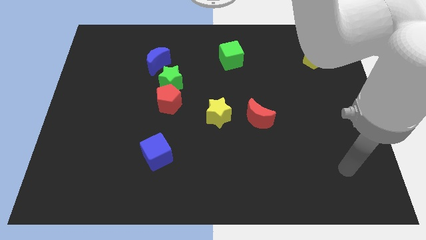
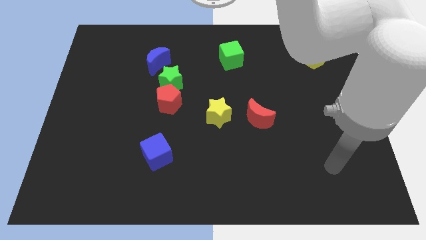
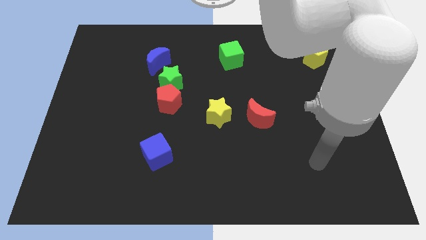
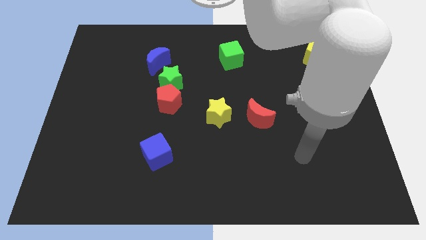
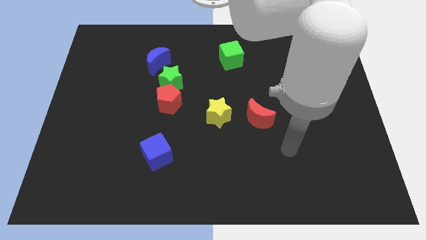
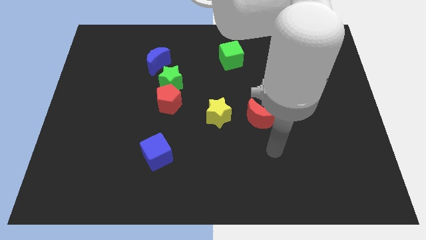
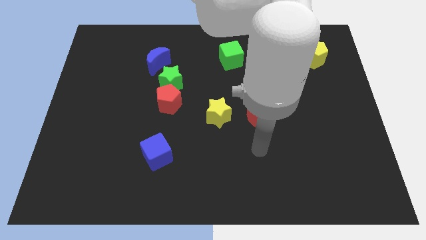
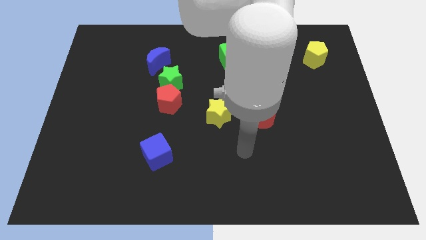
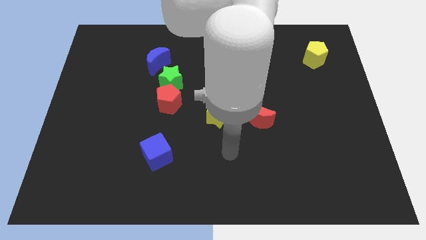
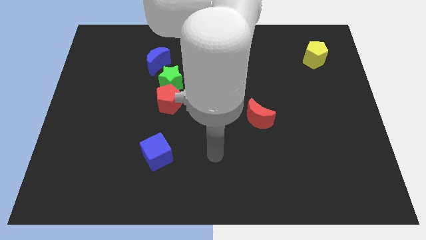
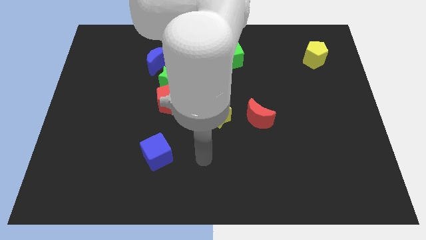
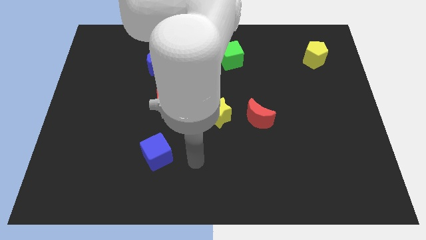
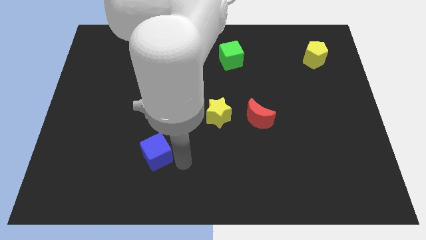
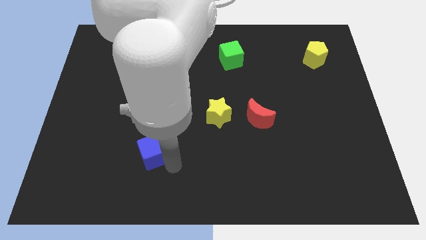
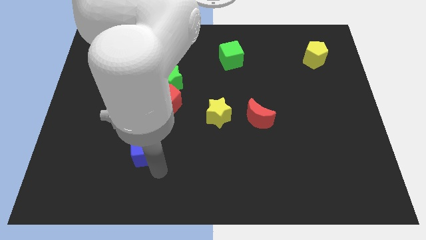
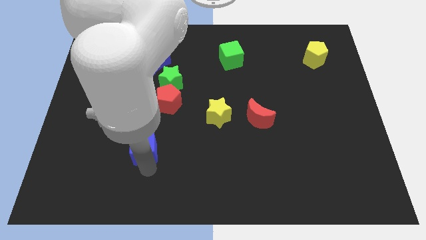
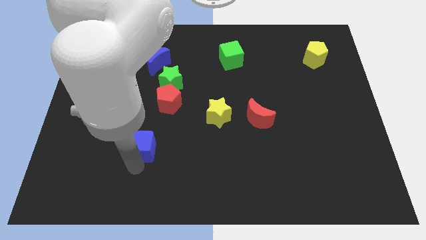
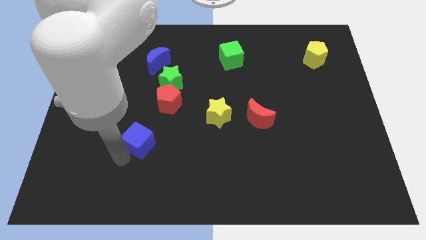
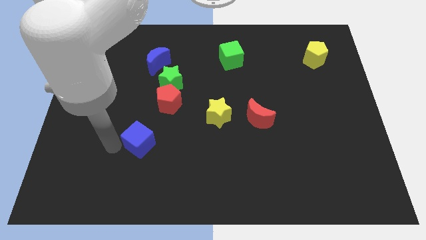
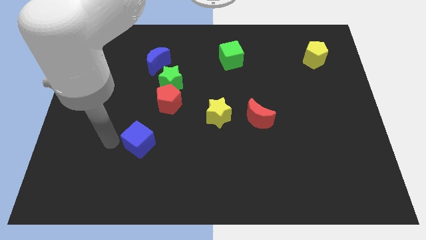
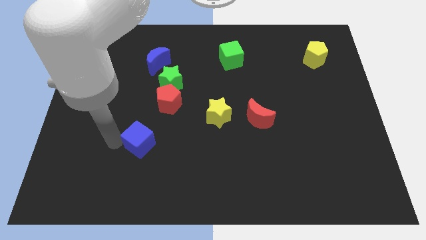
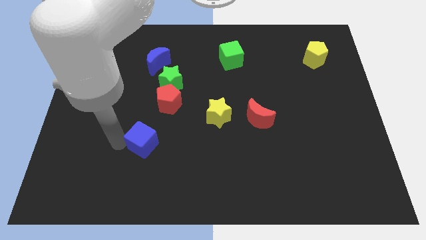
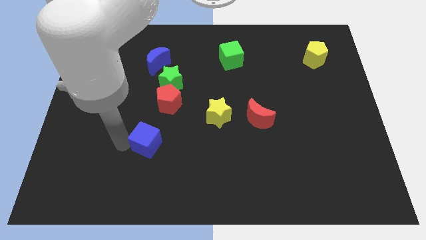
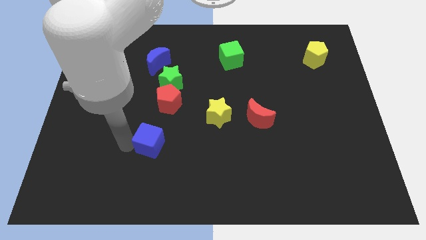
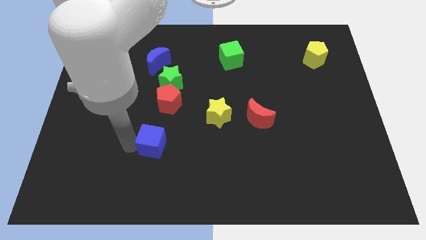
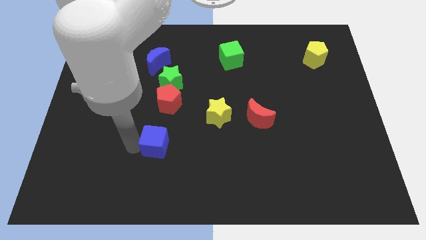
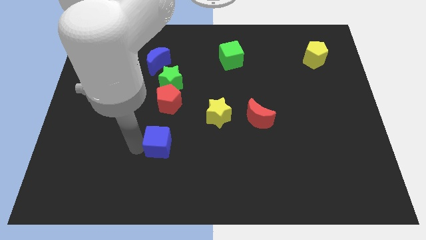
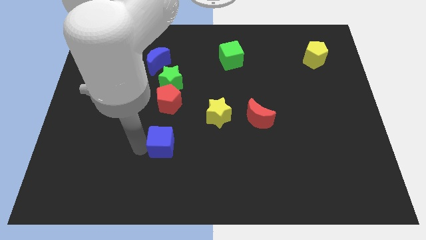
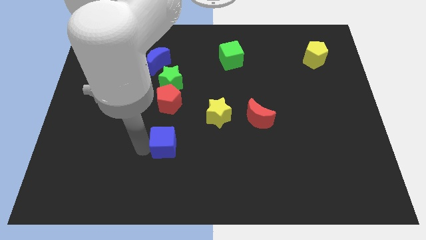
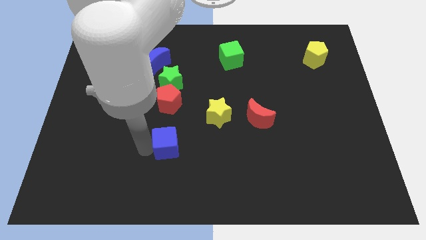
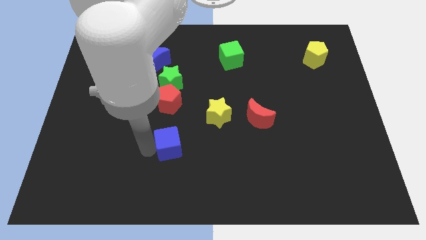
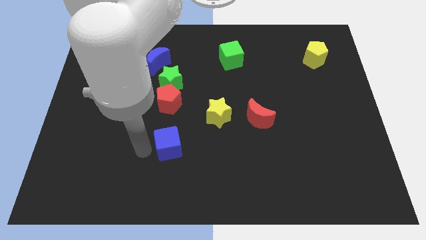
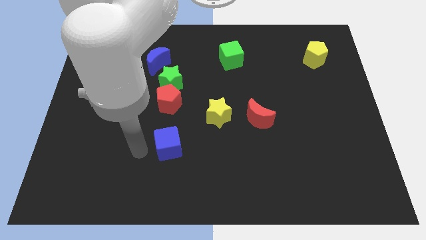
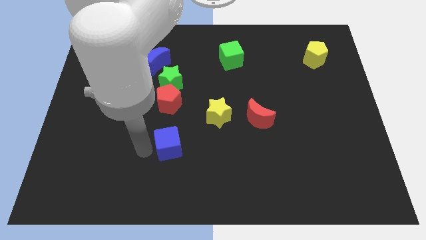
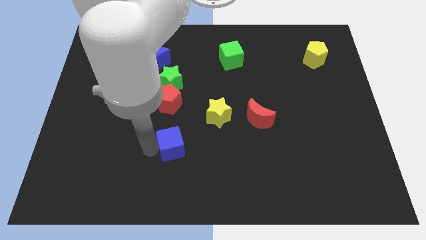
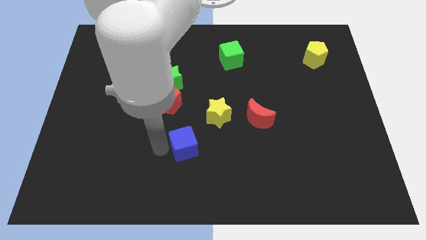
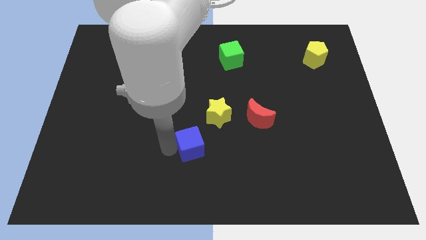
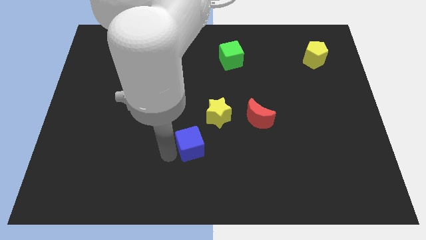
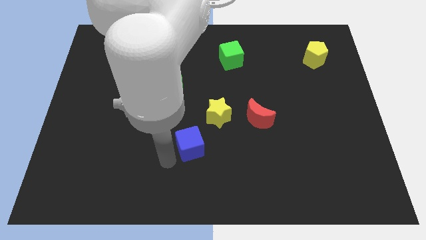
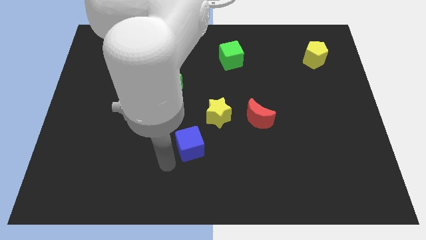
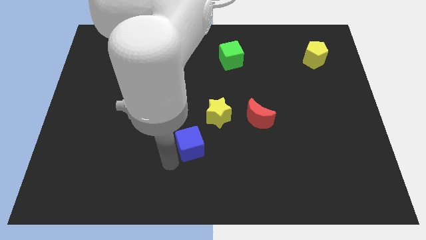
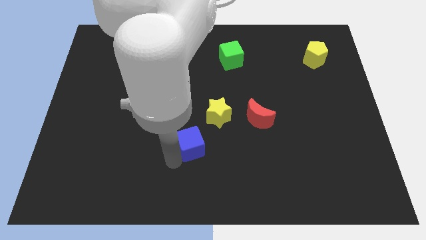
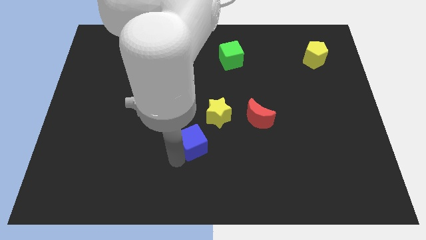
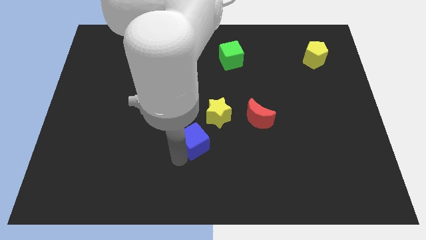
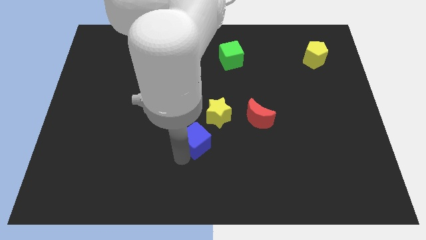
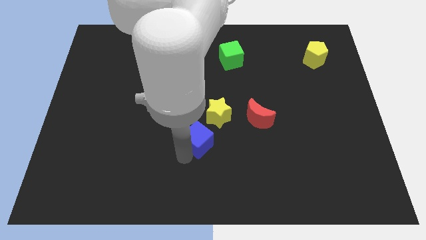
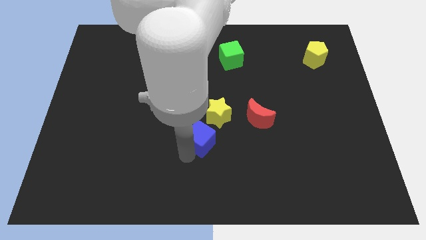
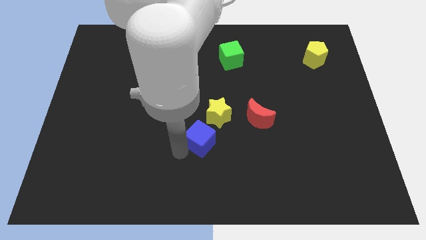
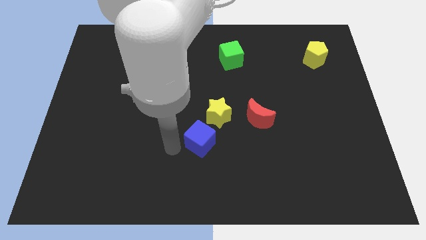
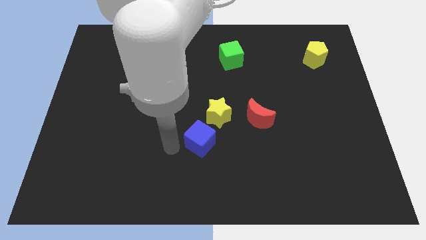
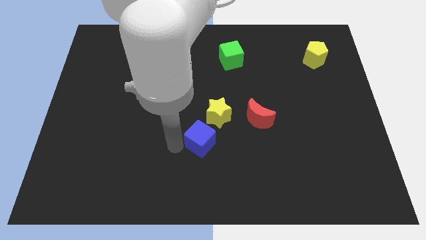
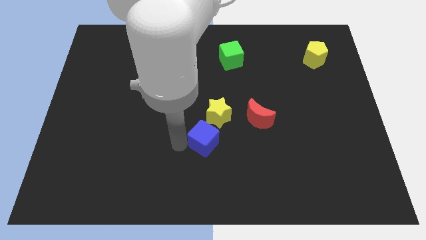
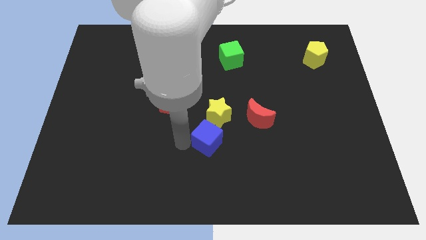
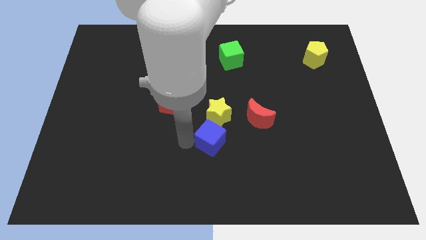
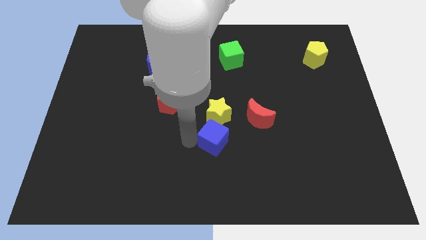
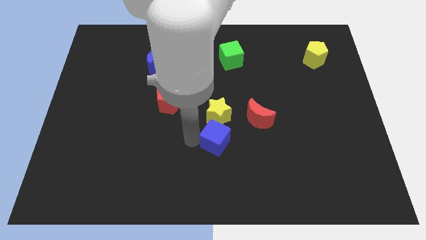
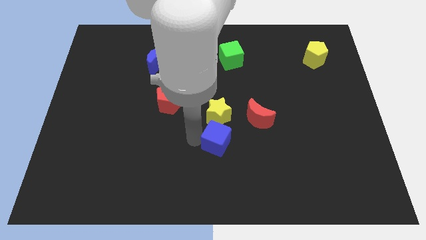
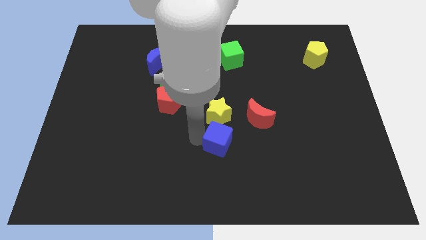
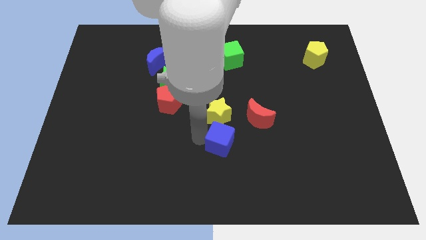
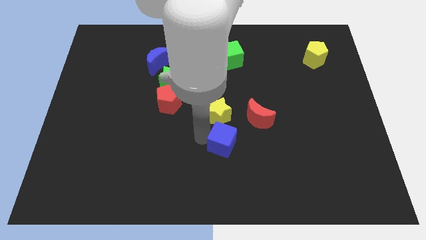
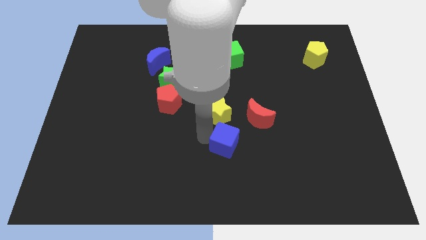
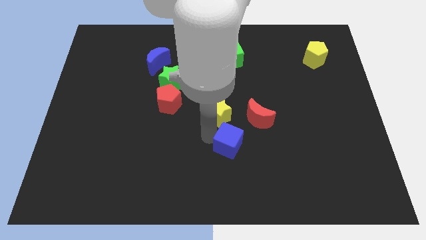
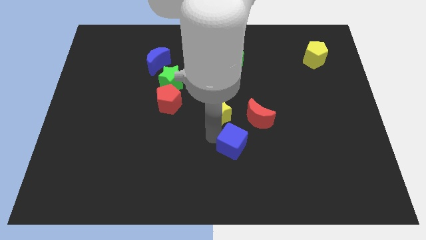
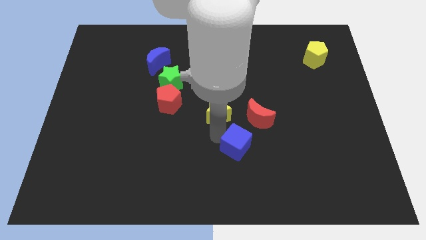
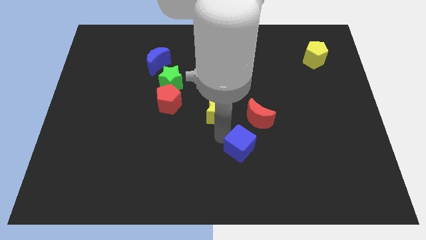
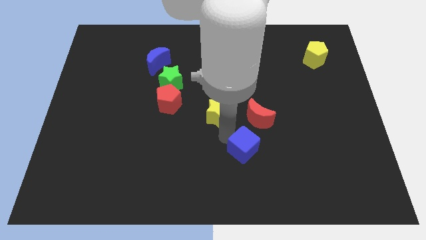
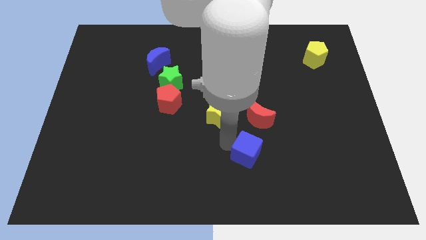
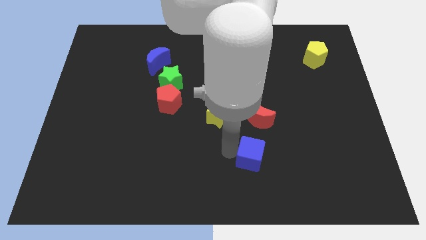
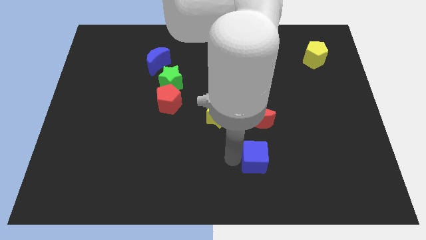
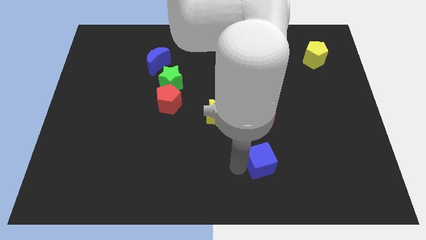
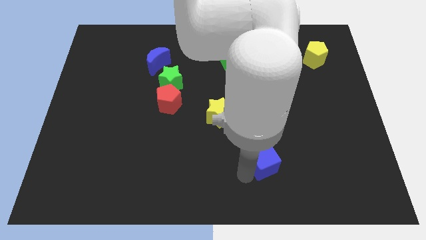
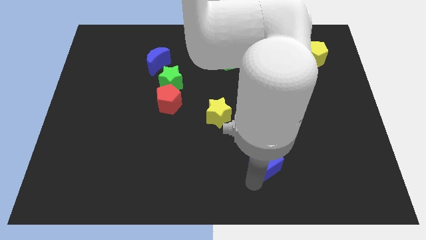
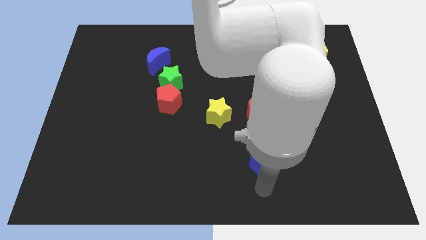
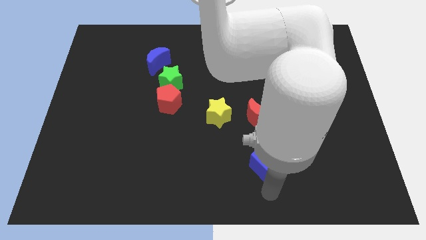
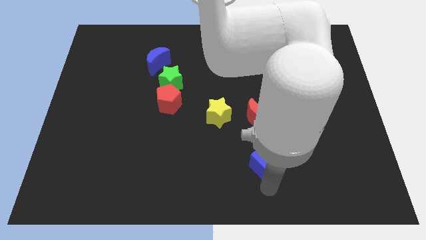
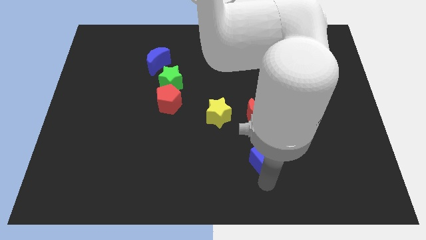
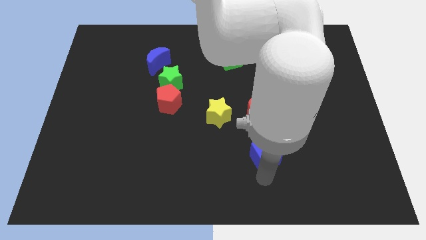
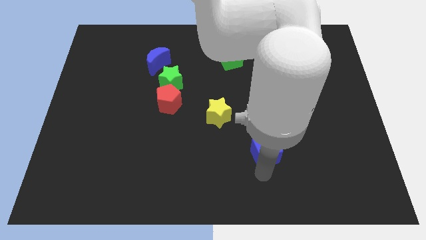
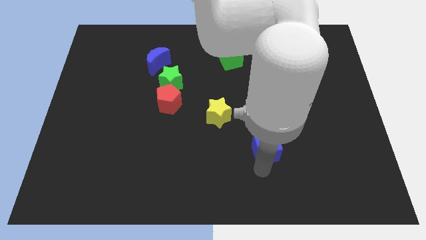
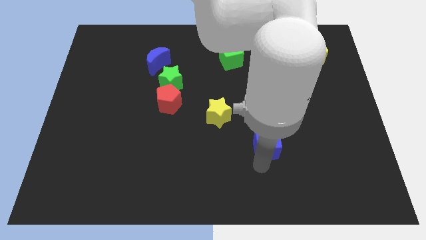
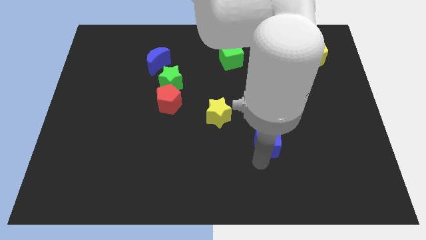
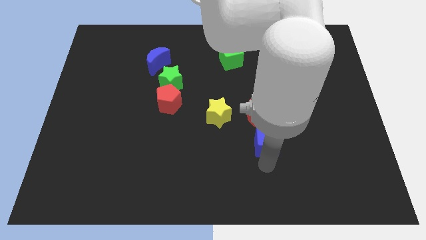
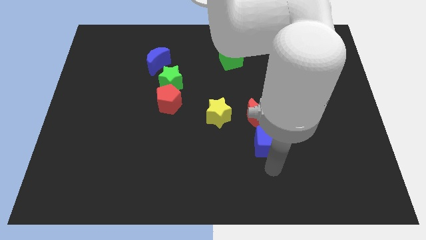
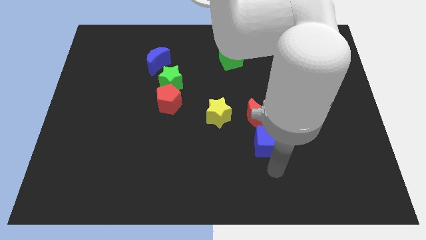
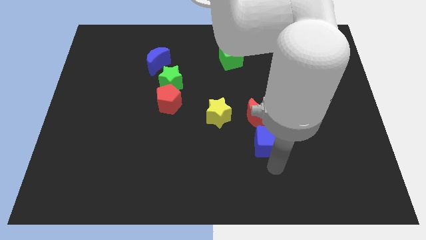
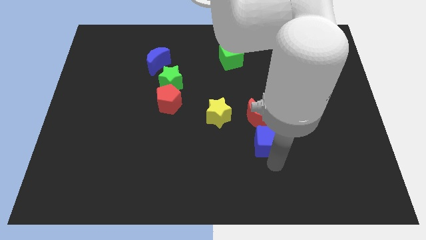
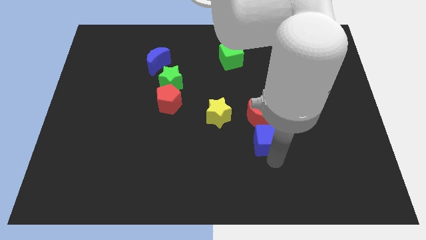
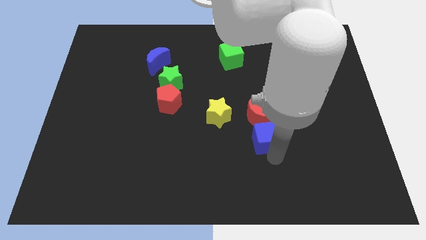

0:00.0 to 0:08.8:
push the blue cube next to the red moon
